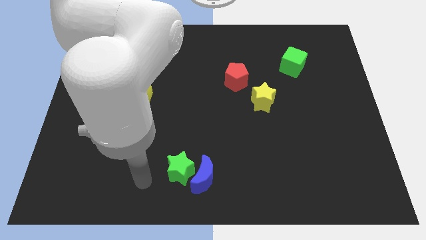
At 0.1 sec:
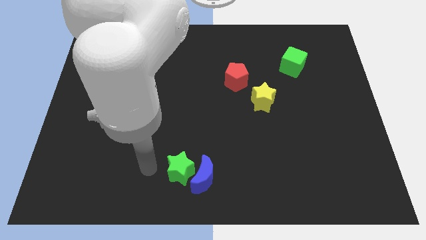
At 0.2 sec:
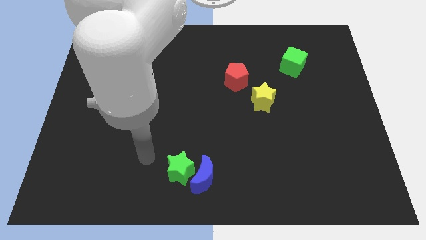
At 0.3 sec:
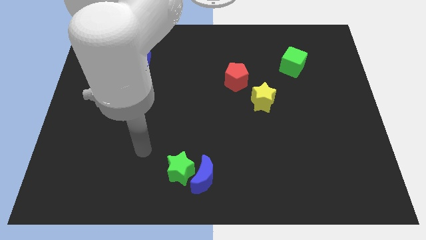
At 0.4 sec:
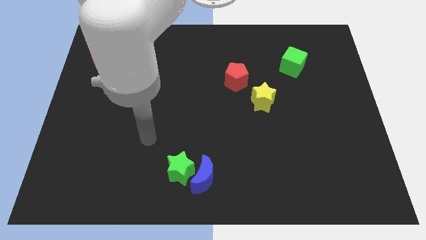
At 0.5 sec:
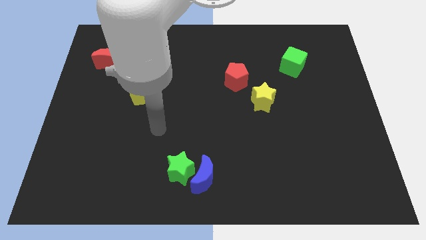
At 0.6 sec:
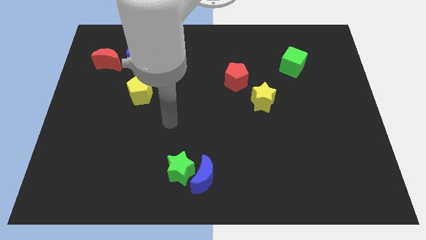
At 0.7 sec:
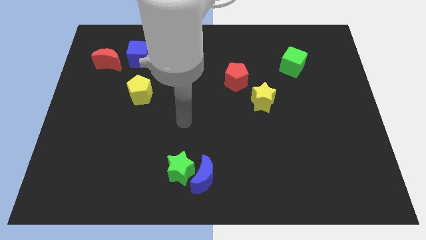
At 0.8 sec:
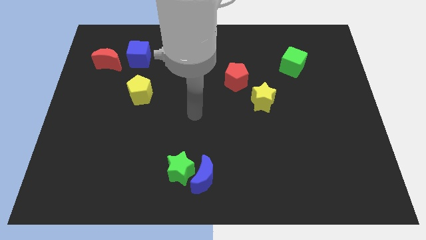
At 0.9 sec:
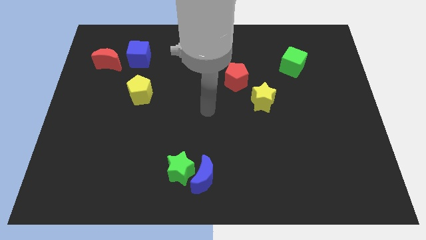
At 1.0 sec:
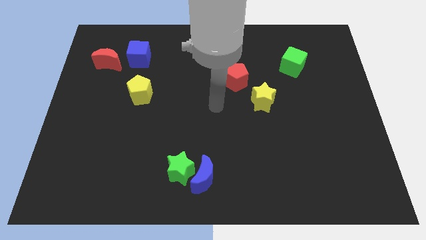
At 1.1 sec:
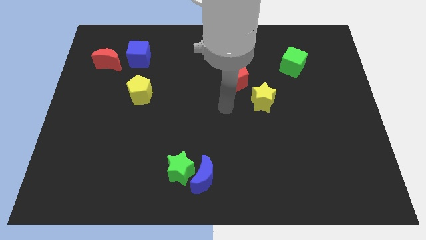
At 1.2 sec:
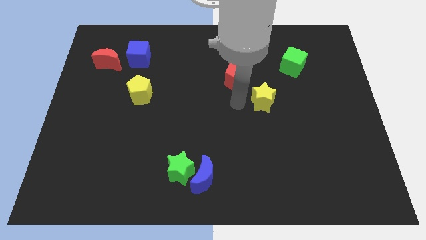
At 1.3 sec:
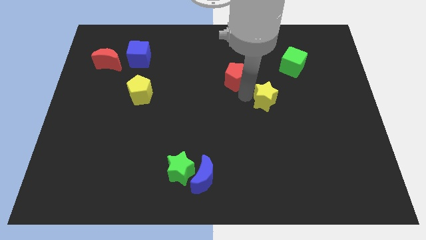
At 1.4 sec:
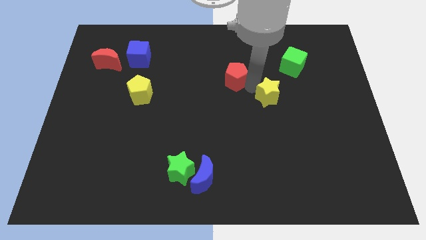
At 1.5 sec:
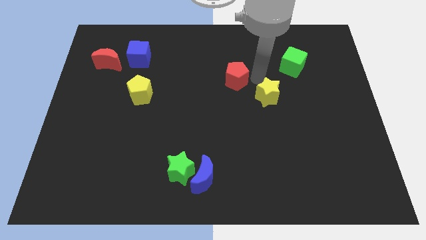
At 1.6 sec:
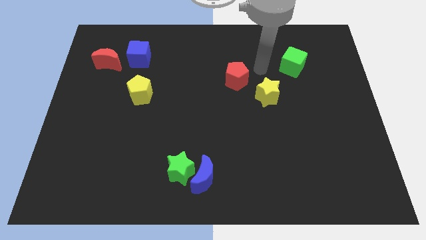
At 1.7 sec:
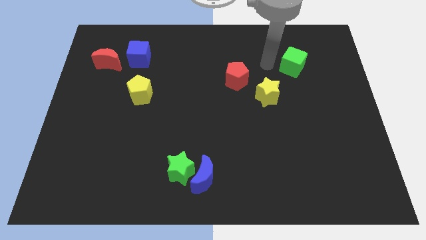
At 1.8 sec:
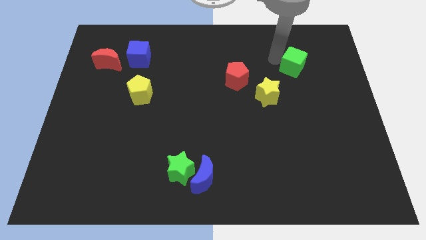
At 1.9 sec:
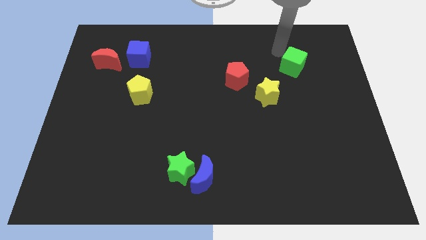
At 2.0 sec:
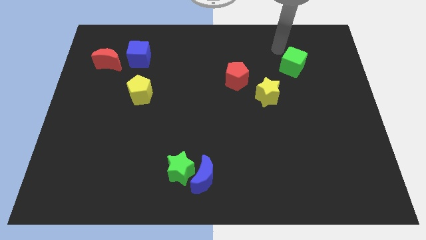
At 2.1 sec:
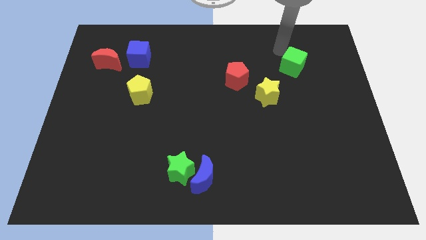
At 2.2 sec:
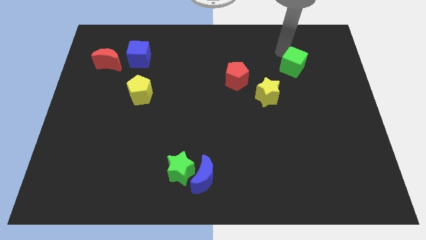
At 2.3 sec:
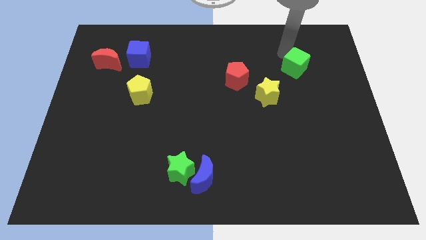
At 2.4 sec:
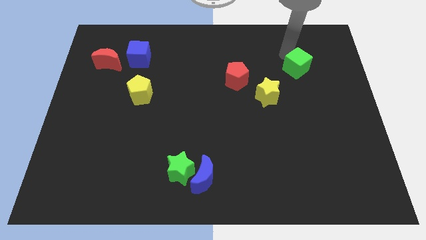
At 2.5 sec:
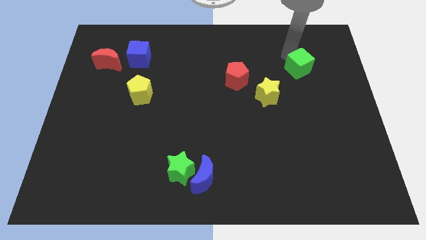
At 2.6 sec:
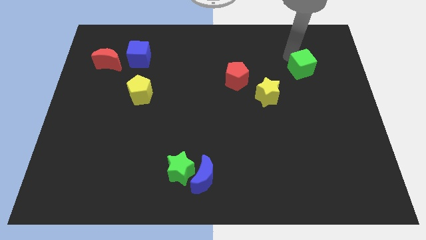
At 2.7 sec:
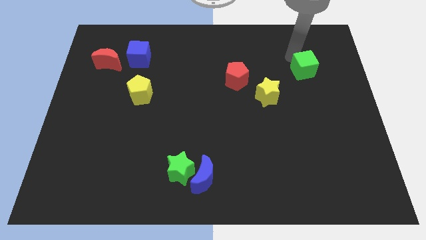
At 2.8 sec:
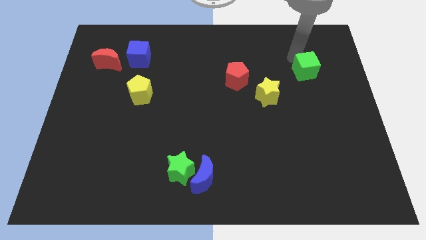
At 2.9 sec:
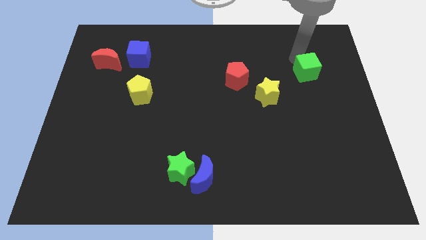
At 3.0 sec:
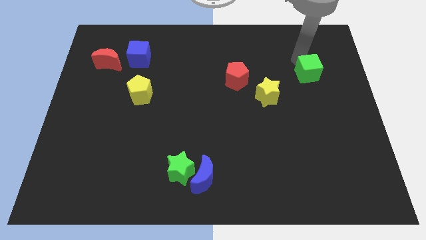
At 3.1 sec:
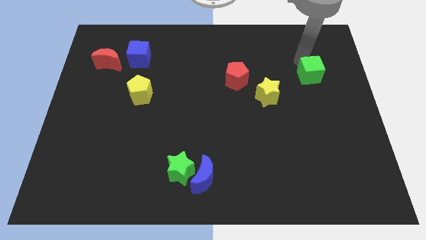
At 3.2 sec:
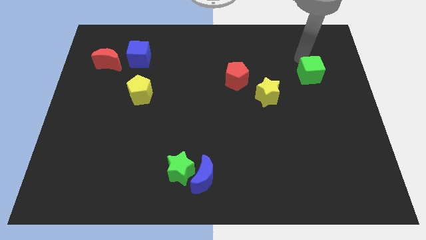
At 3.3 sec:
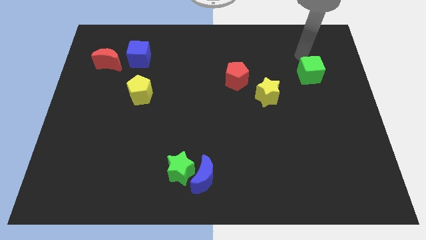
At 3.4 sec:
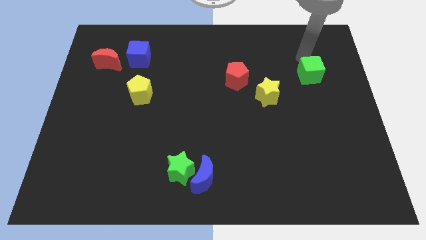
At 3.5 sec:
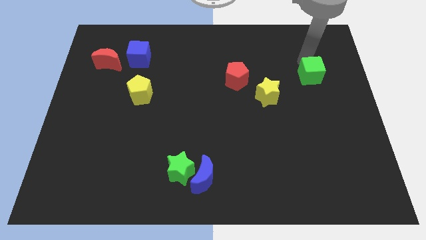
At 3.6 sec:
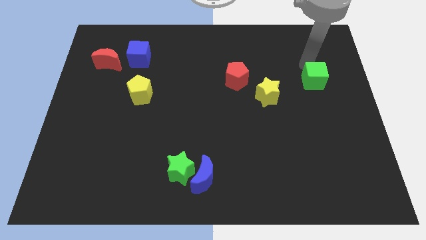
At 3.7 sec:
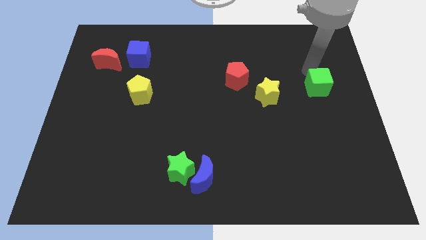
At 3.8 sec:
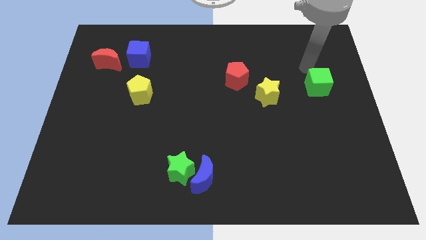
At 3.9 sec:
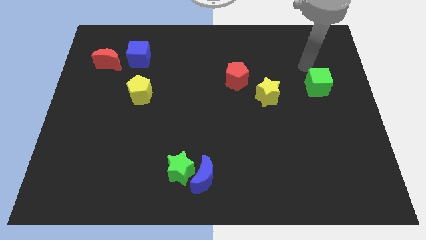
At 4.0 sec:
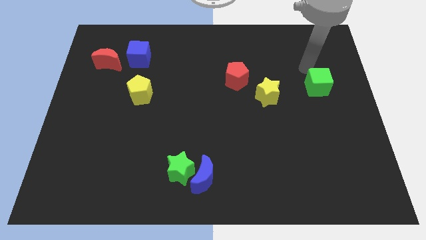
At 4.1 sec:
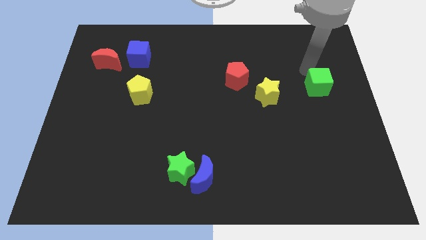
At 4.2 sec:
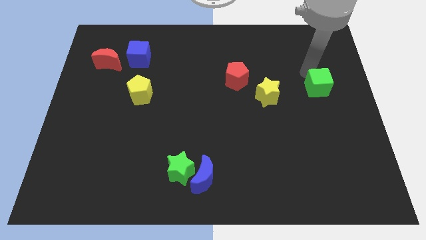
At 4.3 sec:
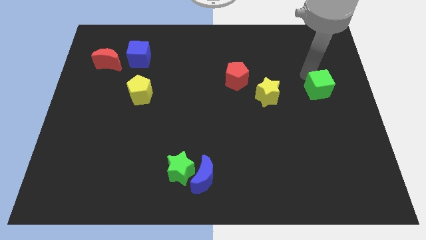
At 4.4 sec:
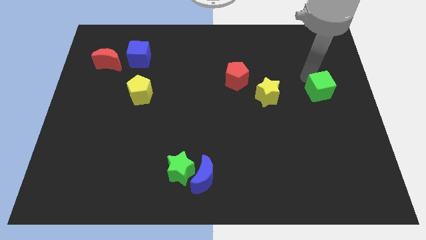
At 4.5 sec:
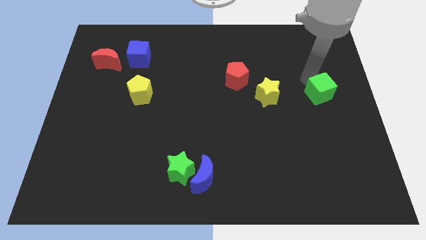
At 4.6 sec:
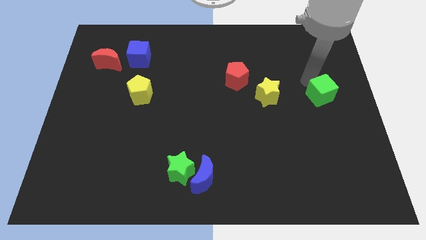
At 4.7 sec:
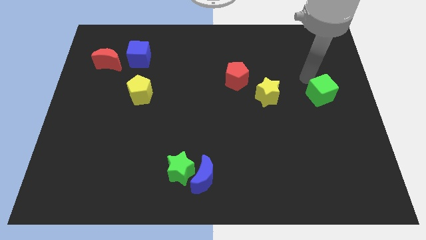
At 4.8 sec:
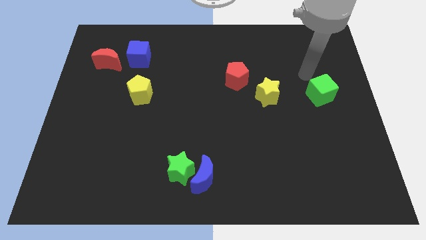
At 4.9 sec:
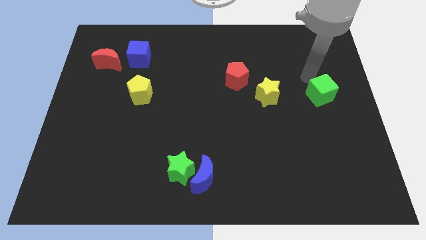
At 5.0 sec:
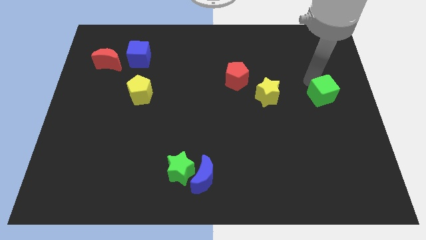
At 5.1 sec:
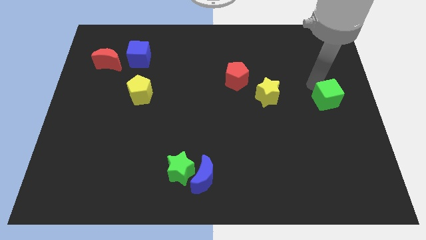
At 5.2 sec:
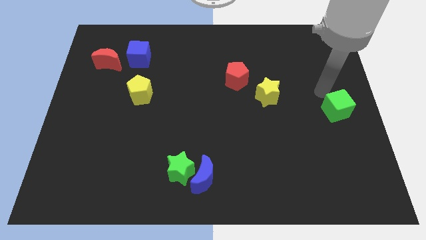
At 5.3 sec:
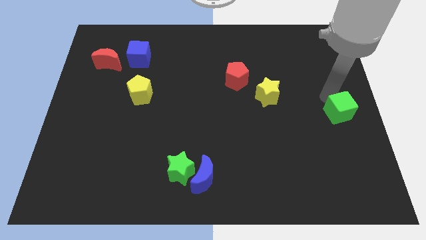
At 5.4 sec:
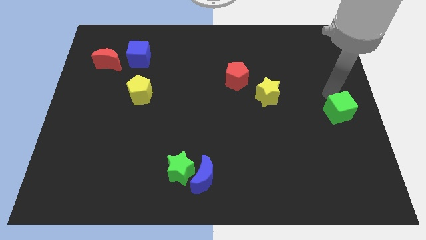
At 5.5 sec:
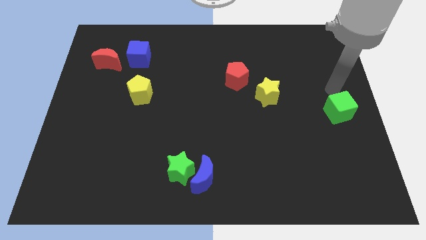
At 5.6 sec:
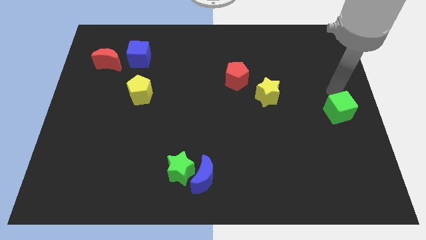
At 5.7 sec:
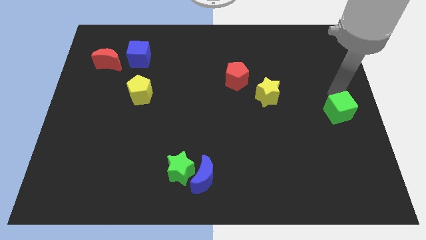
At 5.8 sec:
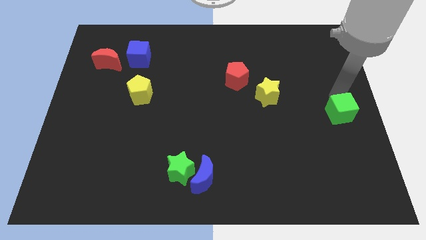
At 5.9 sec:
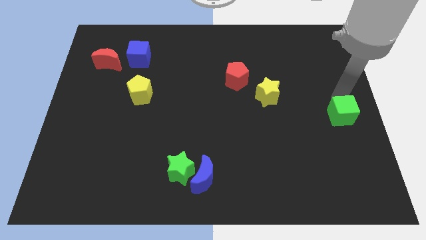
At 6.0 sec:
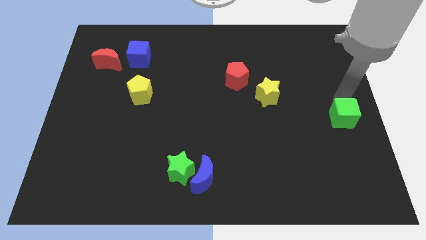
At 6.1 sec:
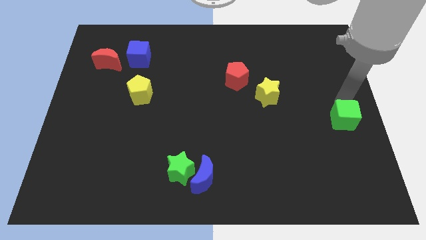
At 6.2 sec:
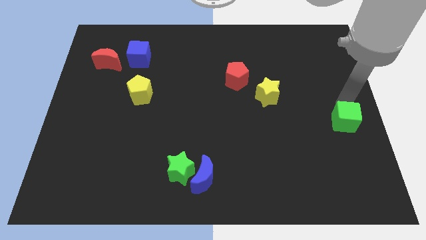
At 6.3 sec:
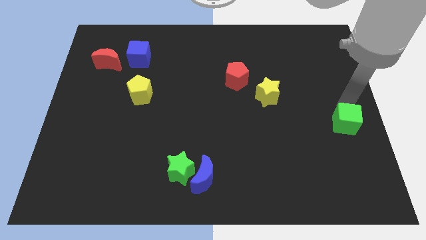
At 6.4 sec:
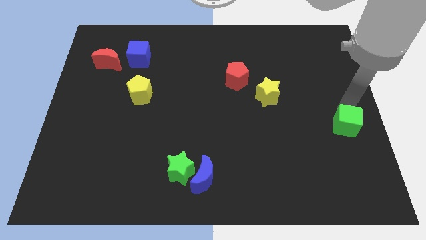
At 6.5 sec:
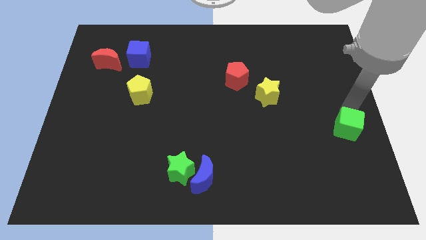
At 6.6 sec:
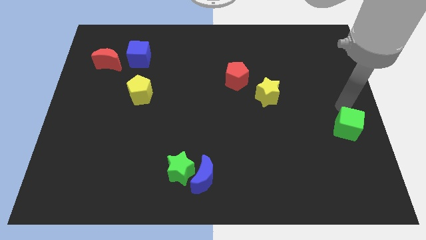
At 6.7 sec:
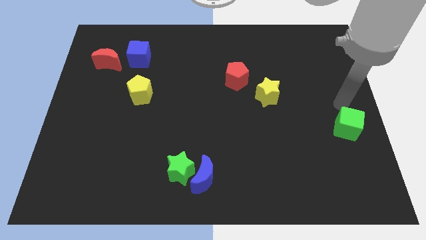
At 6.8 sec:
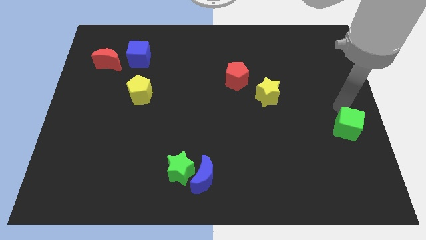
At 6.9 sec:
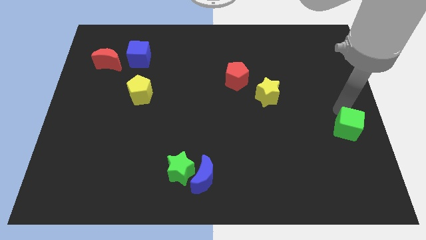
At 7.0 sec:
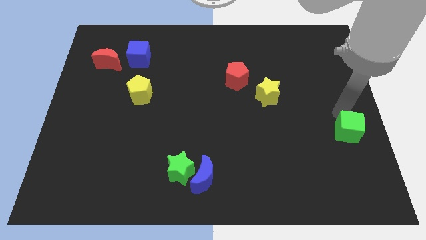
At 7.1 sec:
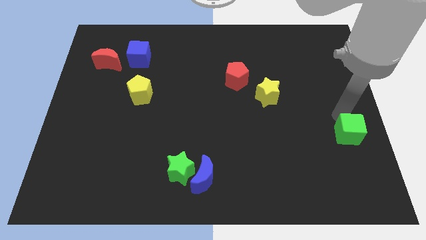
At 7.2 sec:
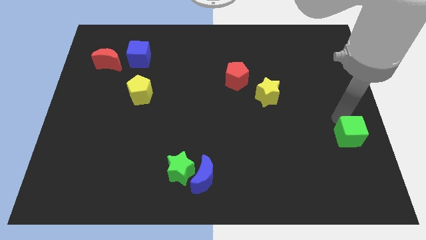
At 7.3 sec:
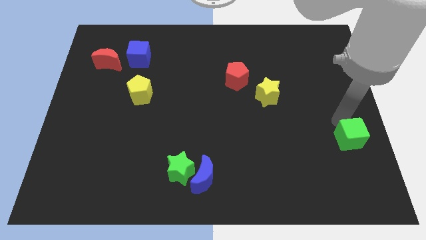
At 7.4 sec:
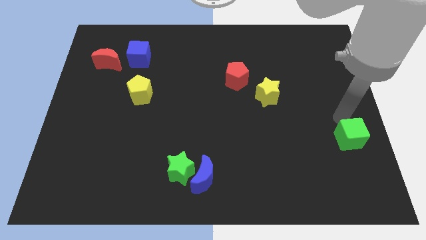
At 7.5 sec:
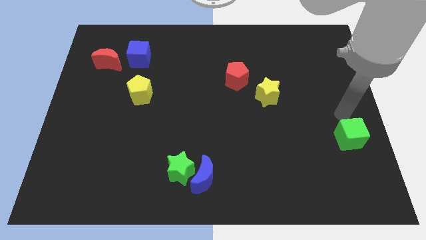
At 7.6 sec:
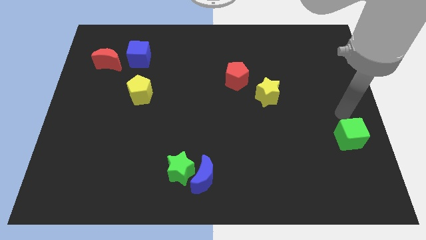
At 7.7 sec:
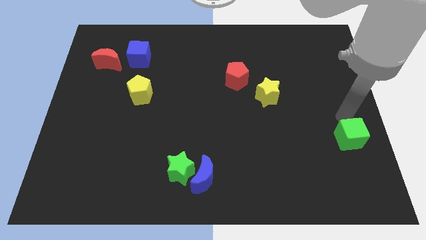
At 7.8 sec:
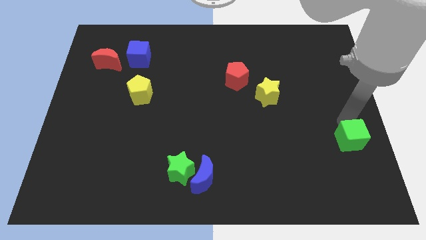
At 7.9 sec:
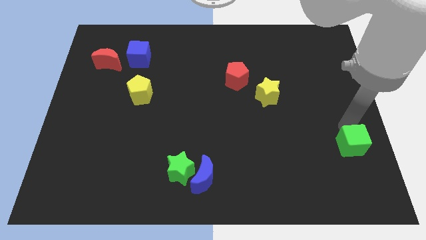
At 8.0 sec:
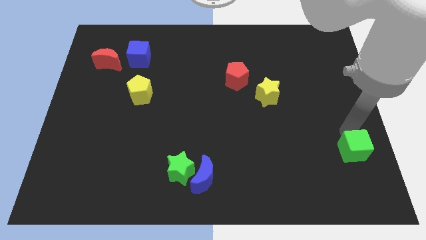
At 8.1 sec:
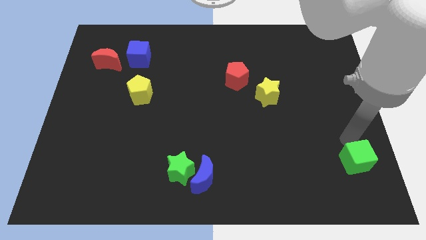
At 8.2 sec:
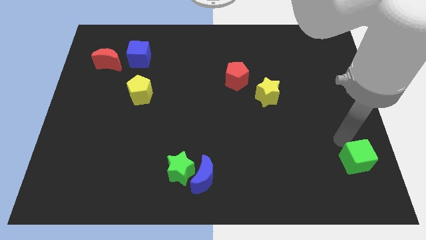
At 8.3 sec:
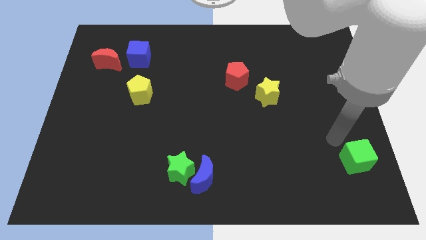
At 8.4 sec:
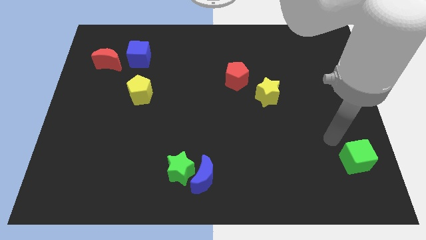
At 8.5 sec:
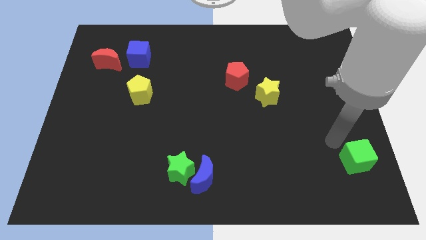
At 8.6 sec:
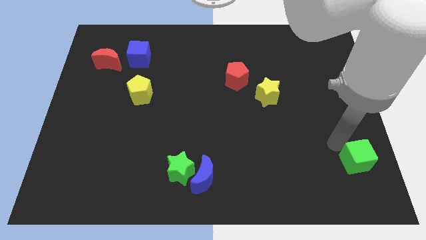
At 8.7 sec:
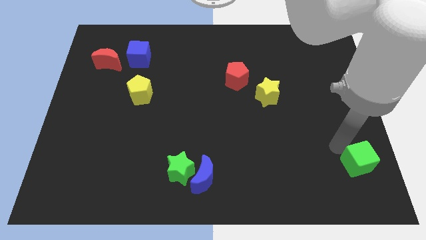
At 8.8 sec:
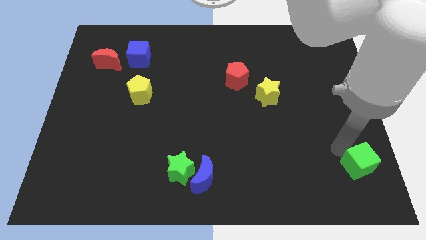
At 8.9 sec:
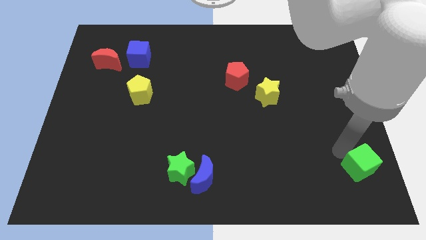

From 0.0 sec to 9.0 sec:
move the green cube to the bottom right of the board
